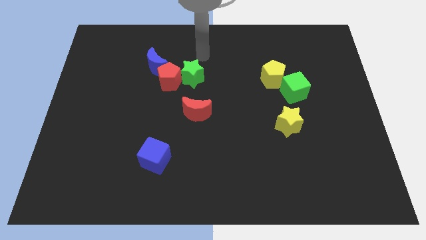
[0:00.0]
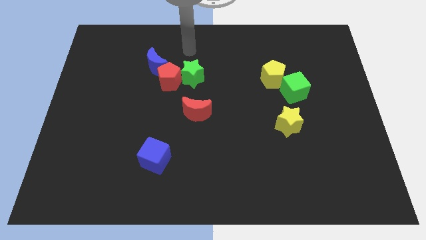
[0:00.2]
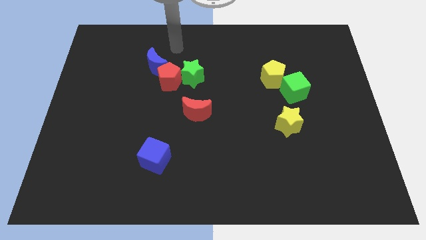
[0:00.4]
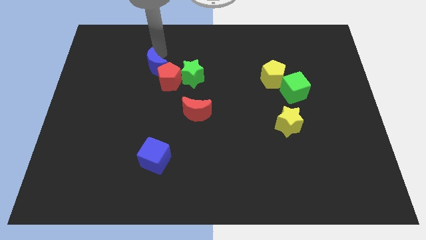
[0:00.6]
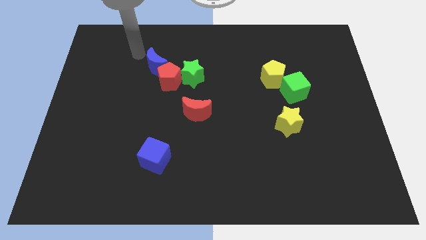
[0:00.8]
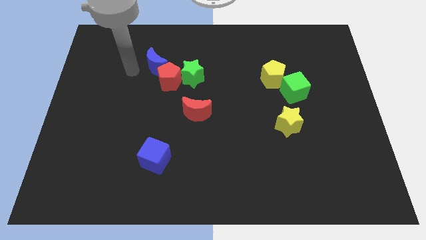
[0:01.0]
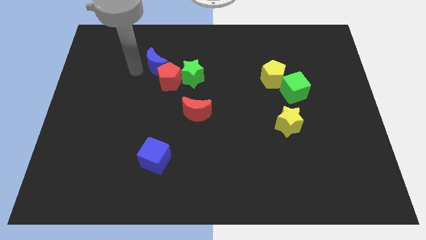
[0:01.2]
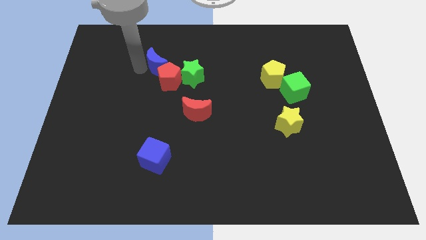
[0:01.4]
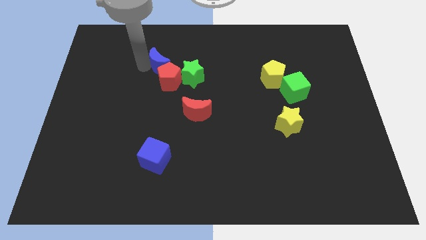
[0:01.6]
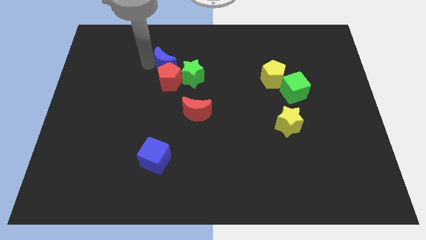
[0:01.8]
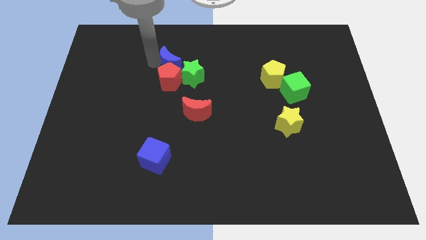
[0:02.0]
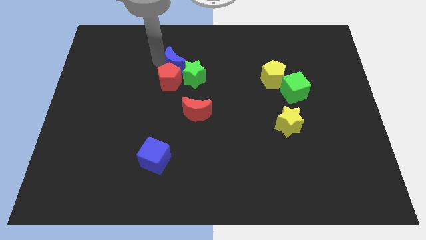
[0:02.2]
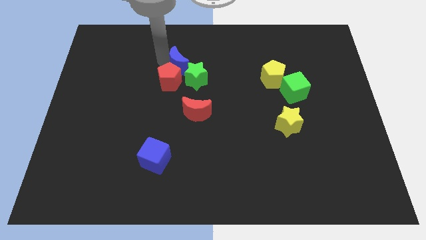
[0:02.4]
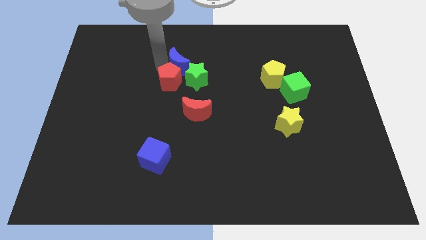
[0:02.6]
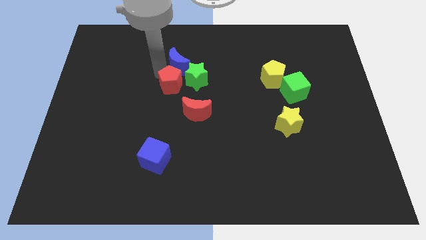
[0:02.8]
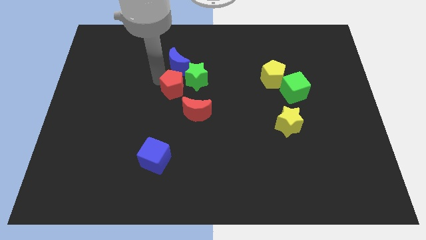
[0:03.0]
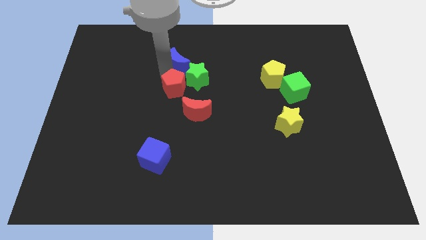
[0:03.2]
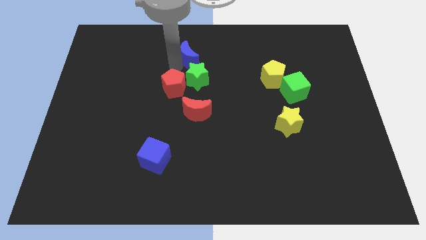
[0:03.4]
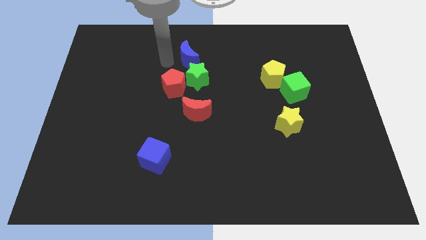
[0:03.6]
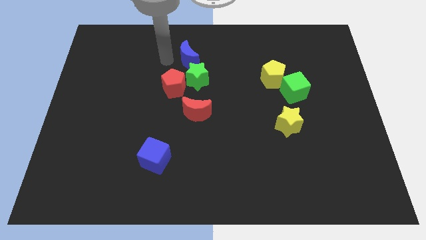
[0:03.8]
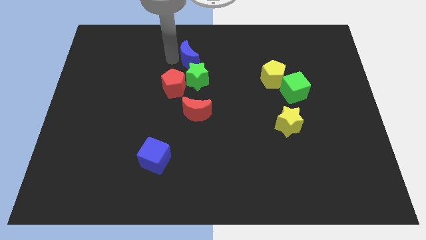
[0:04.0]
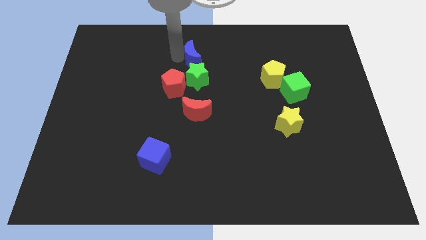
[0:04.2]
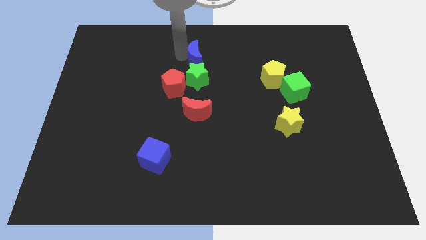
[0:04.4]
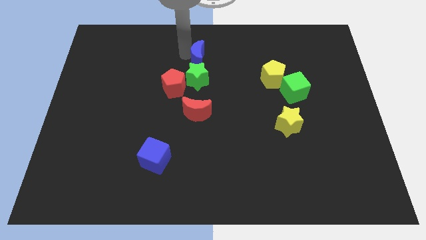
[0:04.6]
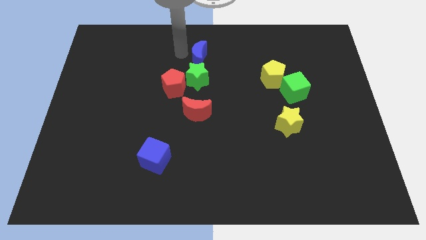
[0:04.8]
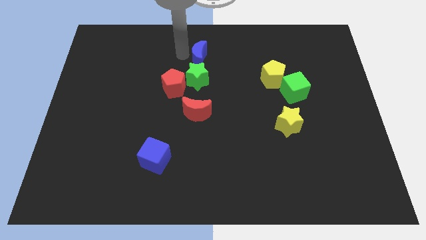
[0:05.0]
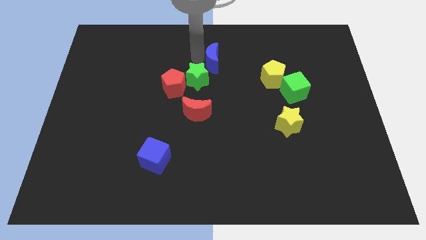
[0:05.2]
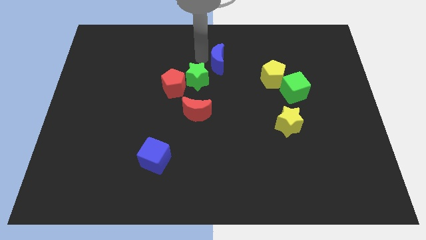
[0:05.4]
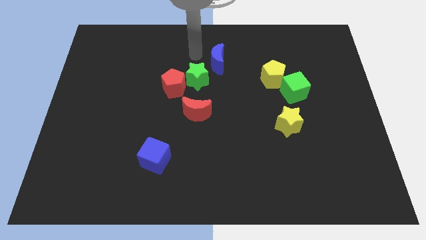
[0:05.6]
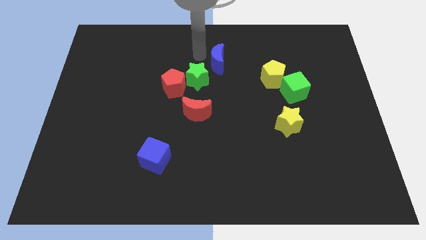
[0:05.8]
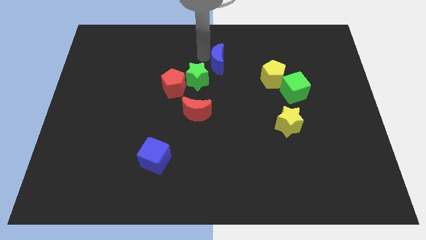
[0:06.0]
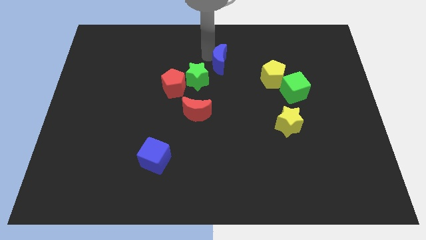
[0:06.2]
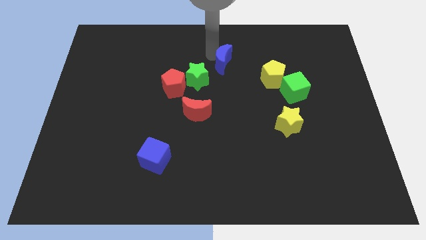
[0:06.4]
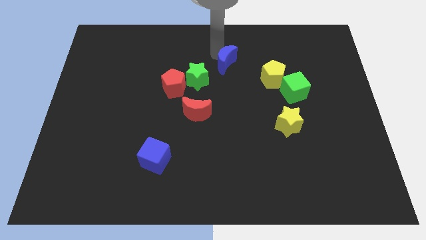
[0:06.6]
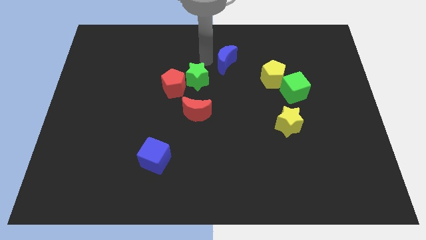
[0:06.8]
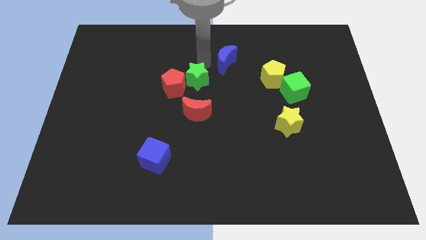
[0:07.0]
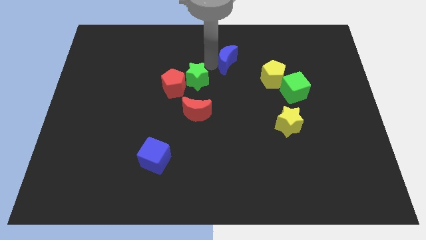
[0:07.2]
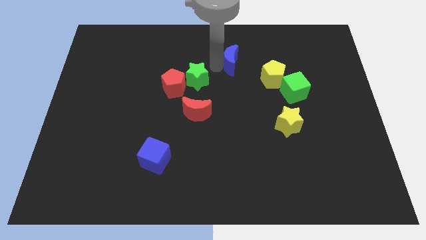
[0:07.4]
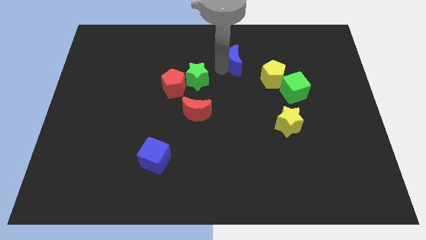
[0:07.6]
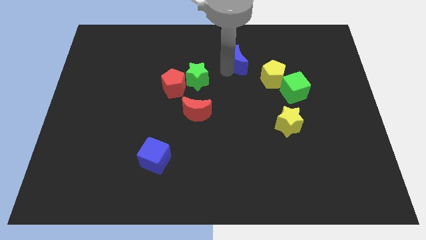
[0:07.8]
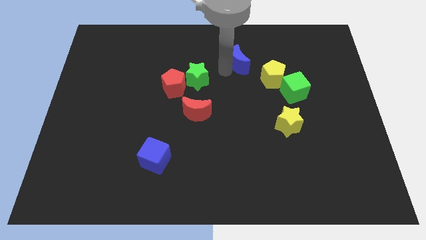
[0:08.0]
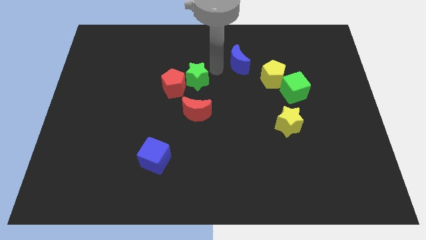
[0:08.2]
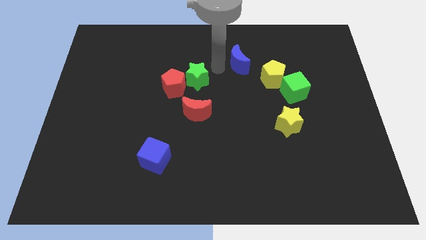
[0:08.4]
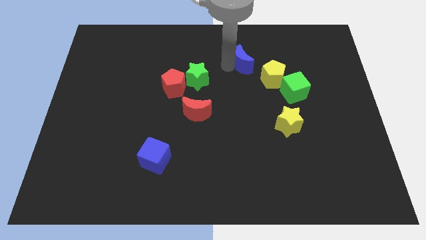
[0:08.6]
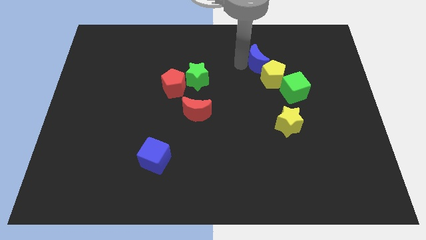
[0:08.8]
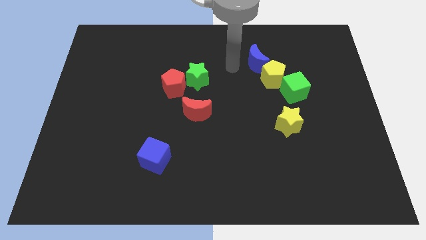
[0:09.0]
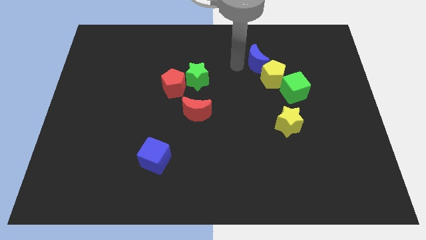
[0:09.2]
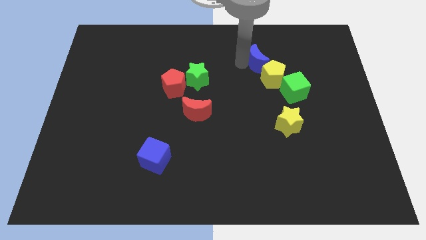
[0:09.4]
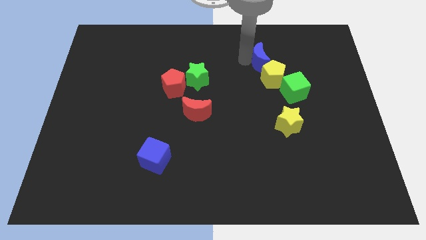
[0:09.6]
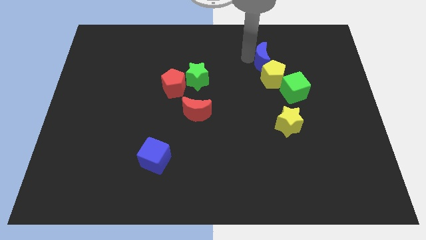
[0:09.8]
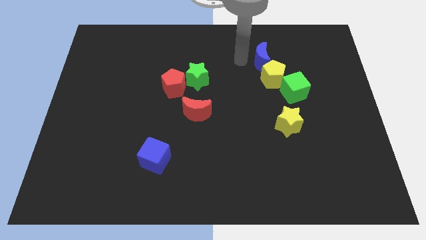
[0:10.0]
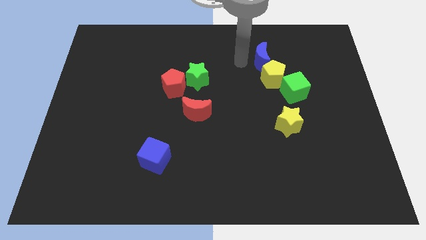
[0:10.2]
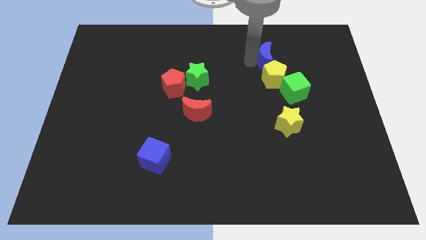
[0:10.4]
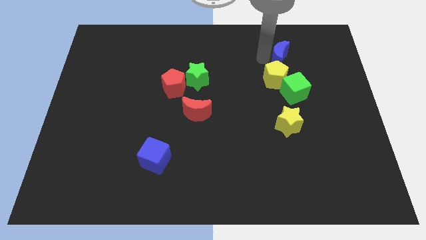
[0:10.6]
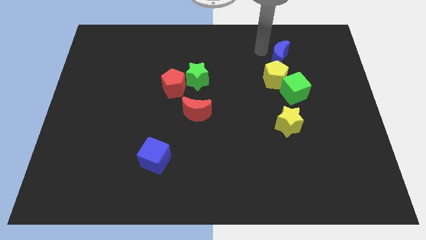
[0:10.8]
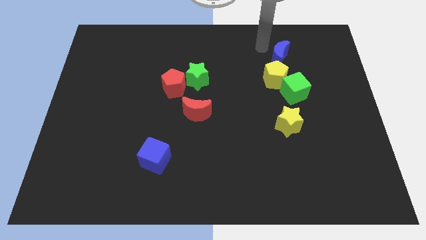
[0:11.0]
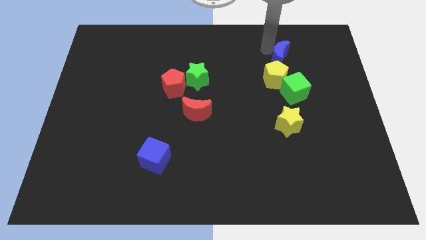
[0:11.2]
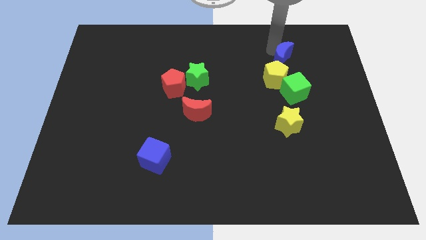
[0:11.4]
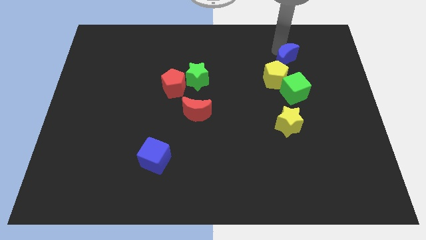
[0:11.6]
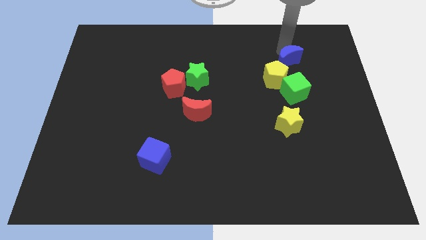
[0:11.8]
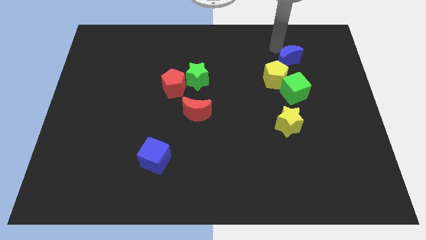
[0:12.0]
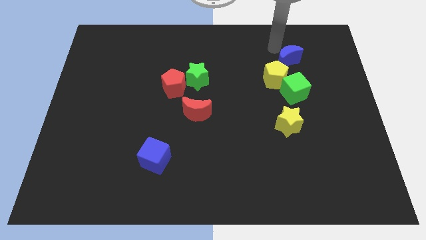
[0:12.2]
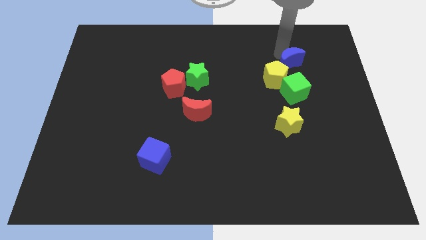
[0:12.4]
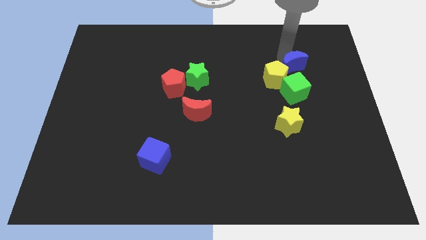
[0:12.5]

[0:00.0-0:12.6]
move the blue moon to the right of the yellow pentagon
